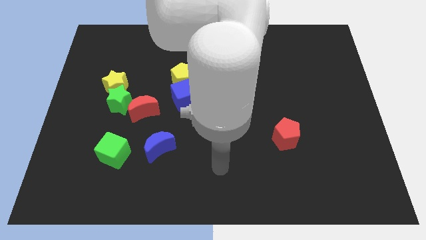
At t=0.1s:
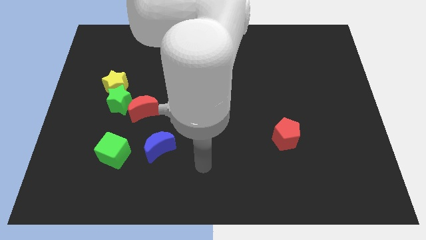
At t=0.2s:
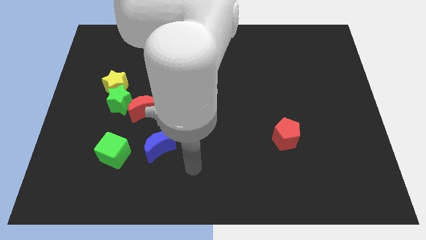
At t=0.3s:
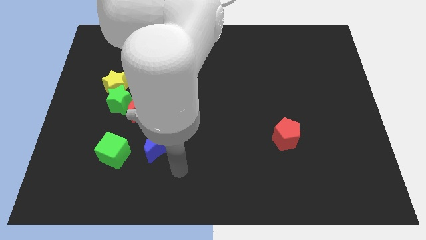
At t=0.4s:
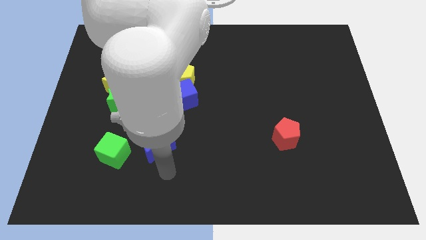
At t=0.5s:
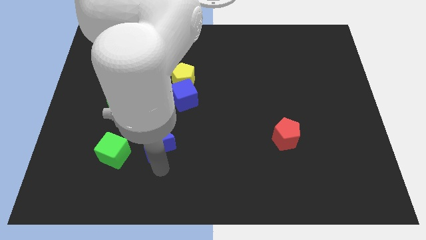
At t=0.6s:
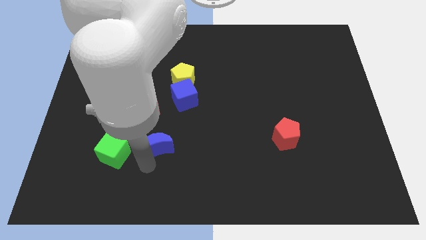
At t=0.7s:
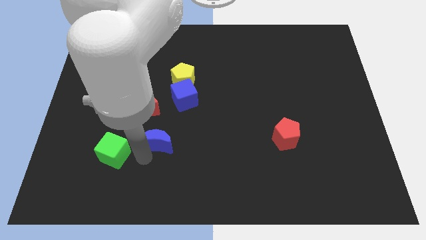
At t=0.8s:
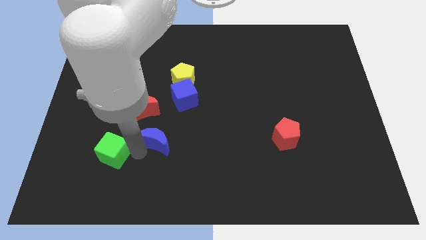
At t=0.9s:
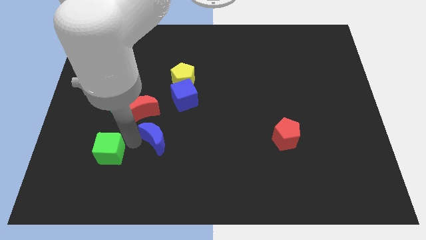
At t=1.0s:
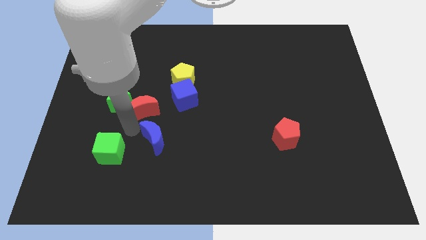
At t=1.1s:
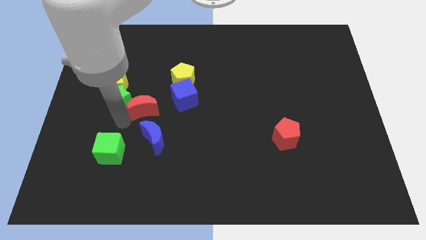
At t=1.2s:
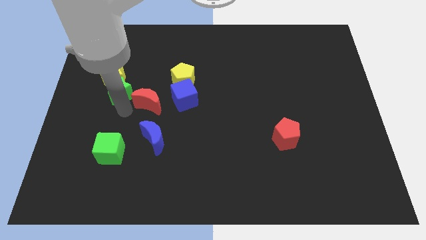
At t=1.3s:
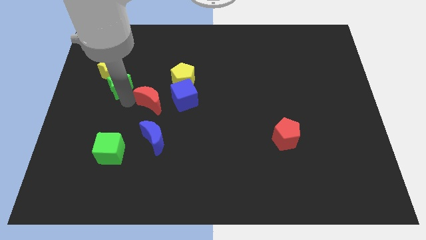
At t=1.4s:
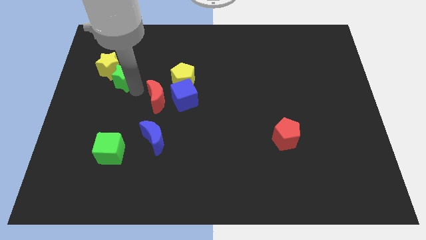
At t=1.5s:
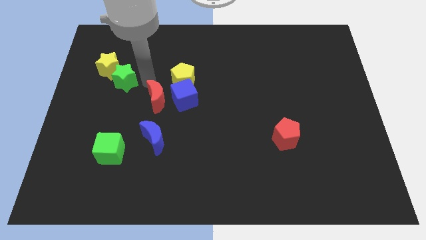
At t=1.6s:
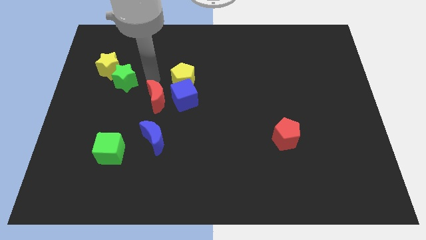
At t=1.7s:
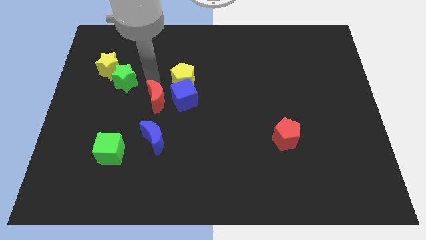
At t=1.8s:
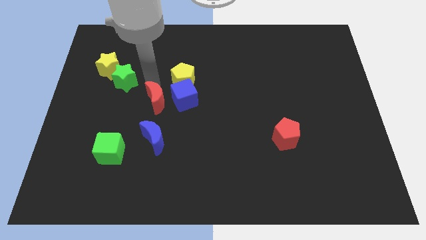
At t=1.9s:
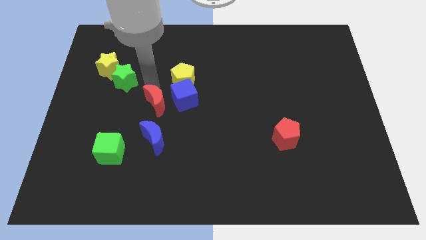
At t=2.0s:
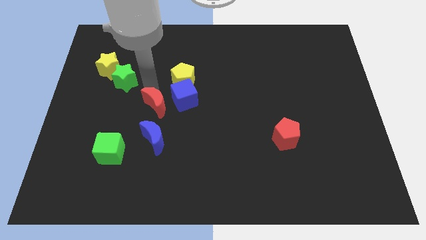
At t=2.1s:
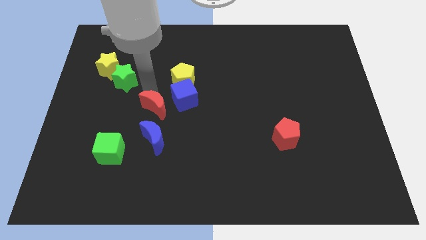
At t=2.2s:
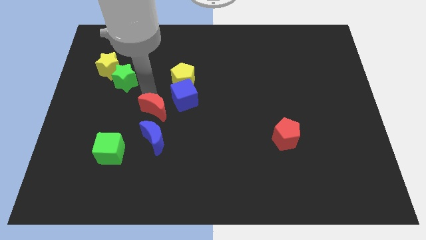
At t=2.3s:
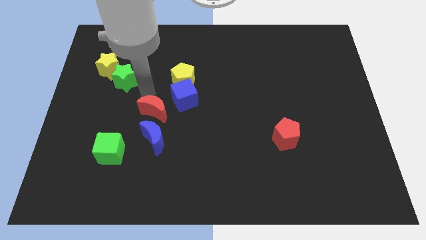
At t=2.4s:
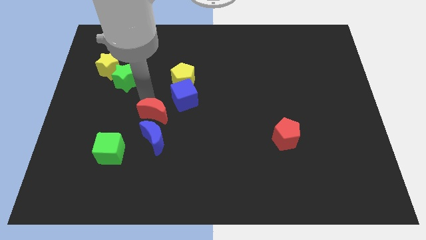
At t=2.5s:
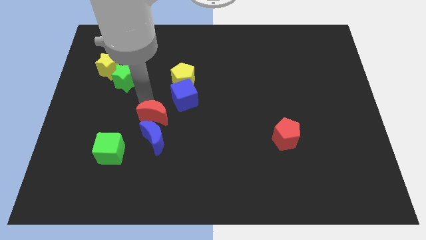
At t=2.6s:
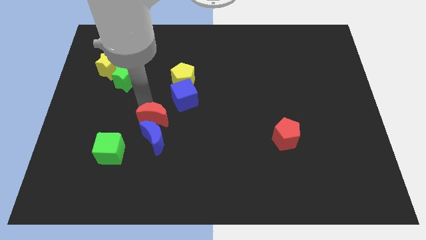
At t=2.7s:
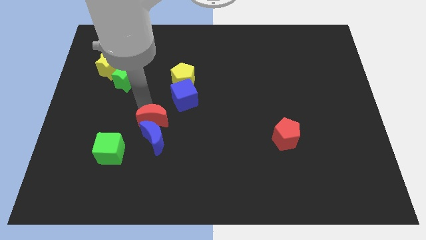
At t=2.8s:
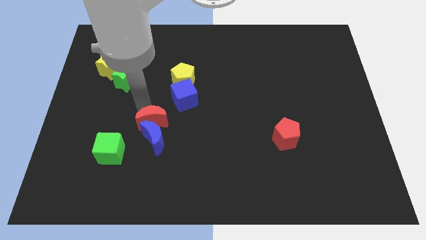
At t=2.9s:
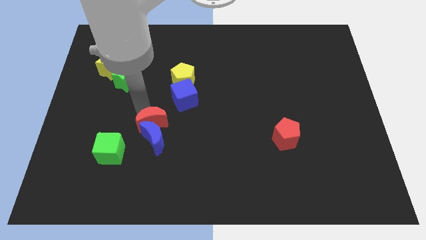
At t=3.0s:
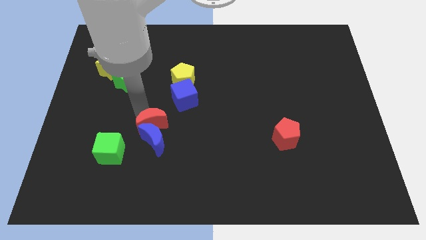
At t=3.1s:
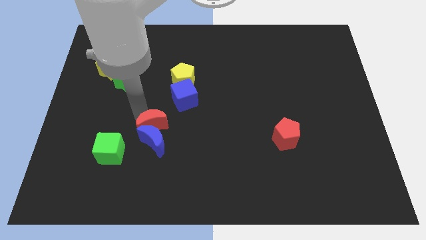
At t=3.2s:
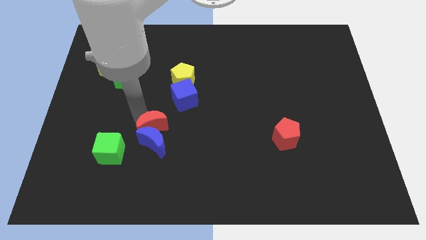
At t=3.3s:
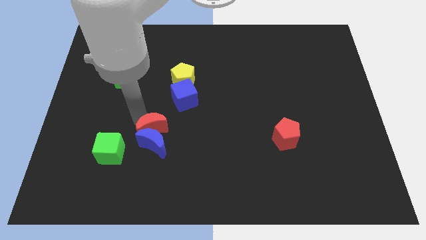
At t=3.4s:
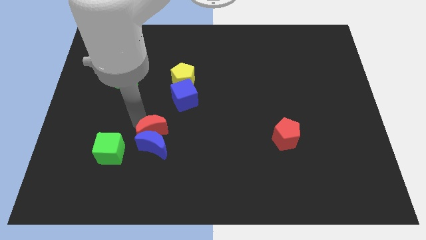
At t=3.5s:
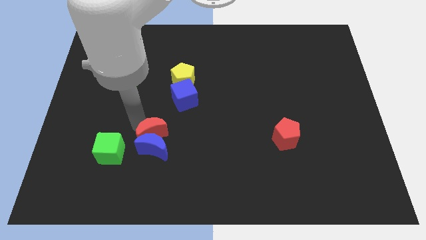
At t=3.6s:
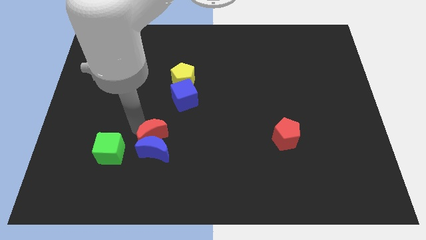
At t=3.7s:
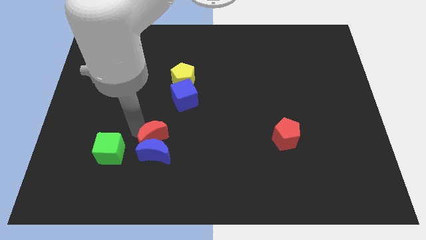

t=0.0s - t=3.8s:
slightly move the red moon downwards and right

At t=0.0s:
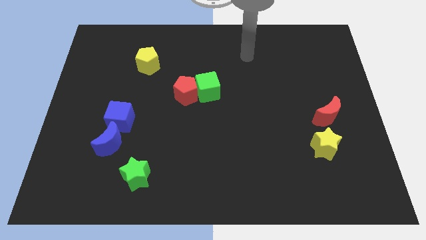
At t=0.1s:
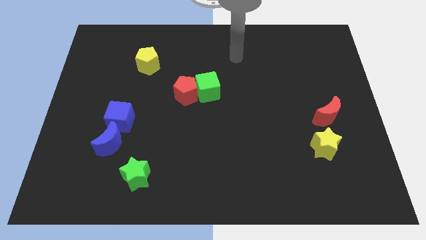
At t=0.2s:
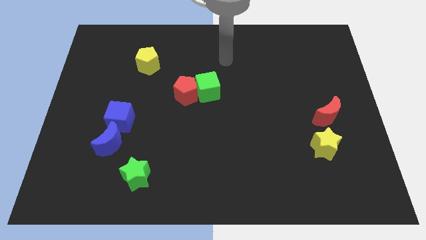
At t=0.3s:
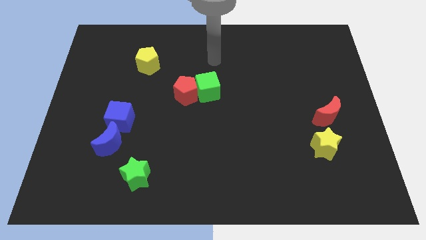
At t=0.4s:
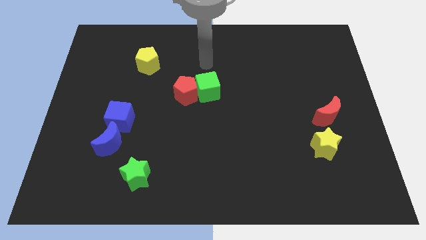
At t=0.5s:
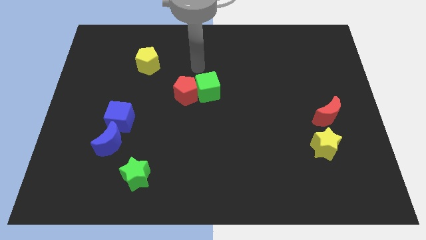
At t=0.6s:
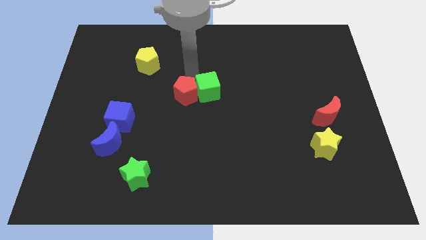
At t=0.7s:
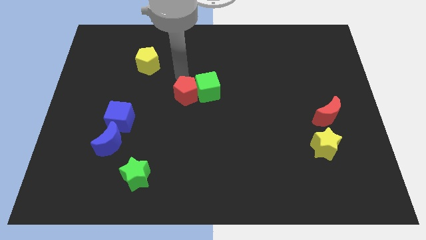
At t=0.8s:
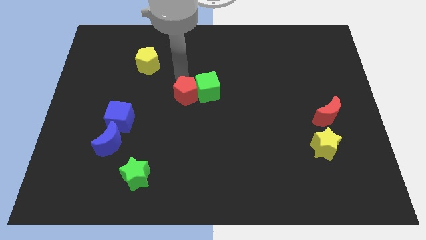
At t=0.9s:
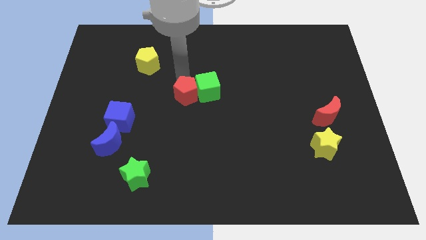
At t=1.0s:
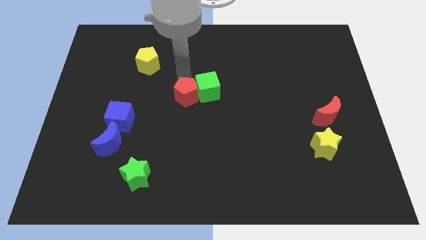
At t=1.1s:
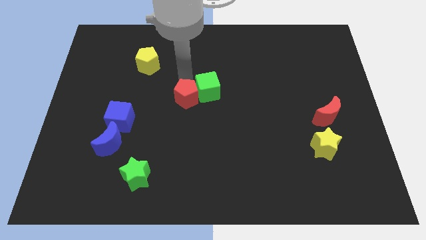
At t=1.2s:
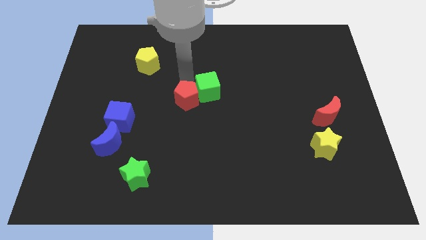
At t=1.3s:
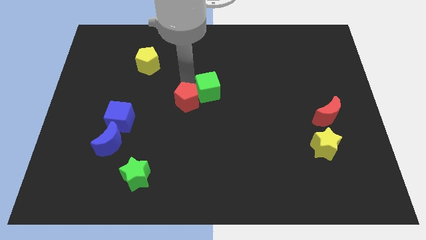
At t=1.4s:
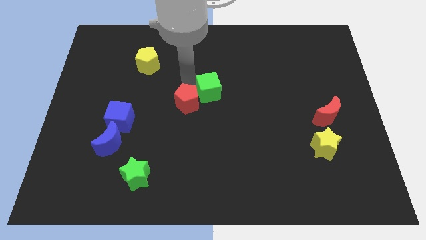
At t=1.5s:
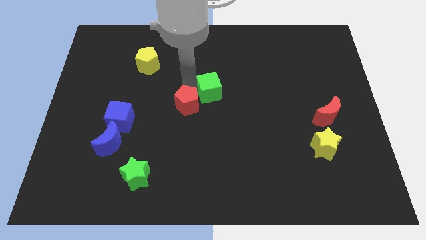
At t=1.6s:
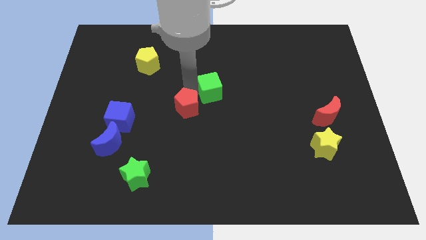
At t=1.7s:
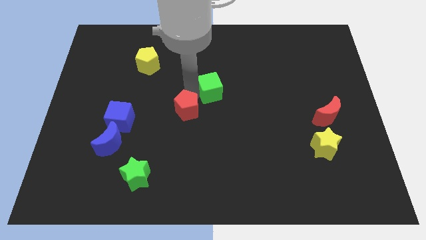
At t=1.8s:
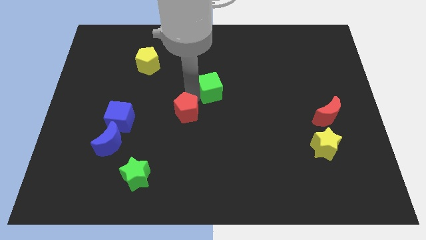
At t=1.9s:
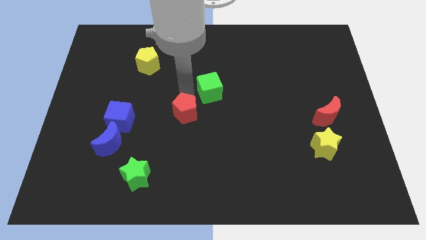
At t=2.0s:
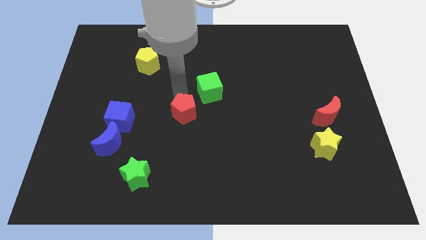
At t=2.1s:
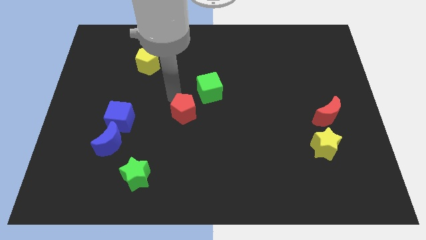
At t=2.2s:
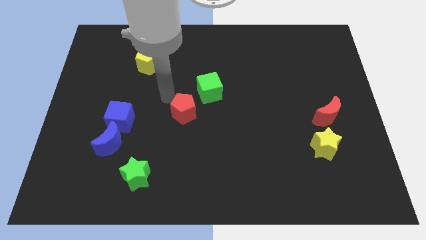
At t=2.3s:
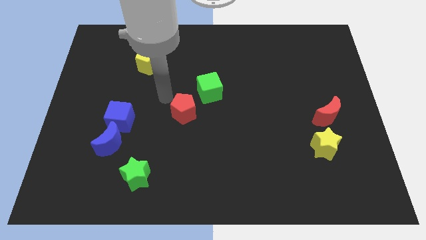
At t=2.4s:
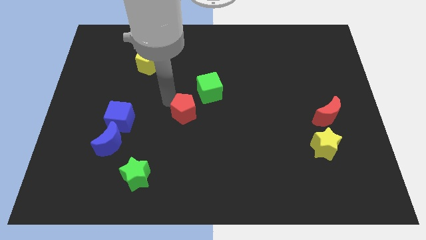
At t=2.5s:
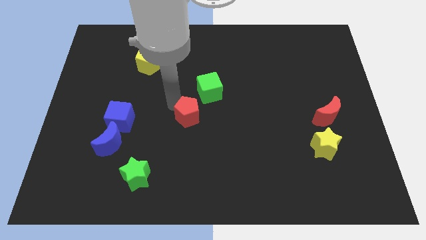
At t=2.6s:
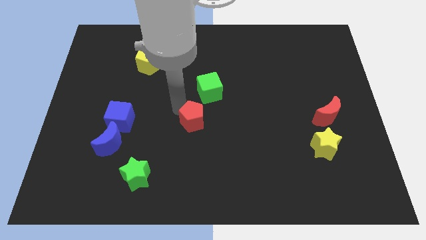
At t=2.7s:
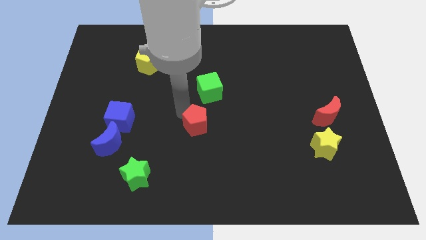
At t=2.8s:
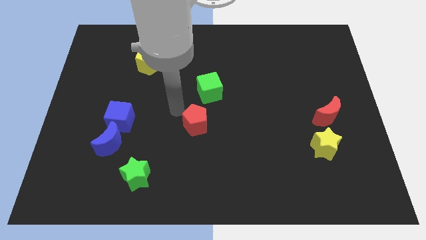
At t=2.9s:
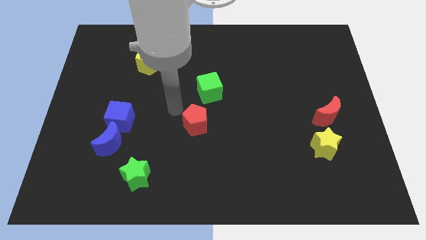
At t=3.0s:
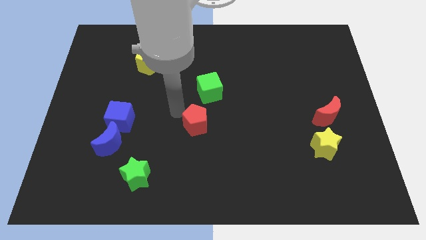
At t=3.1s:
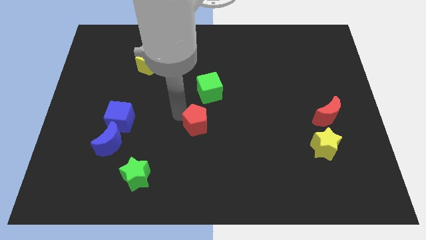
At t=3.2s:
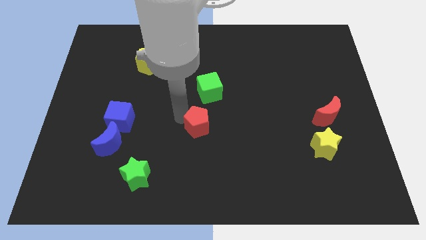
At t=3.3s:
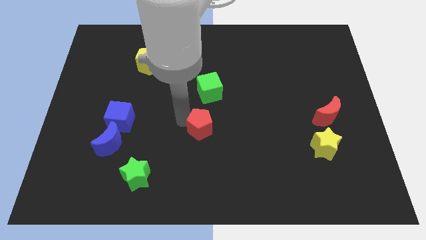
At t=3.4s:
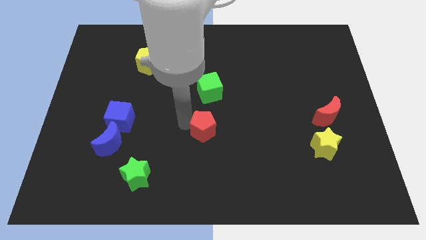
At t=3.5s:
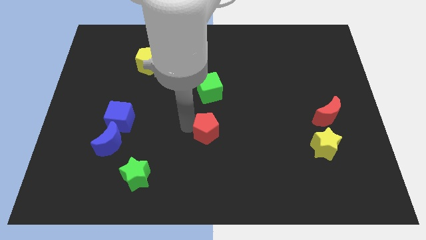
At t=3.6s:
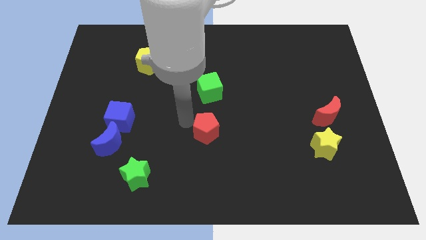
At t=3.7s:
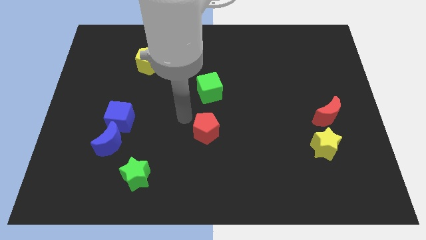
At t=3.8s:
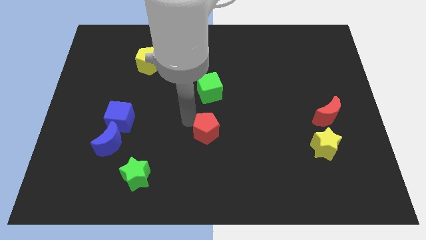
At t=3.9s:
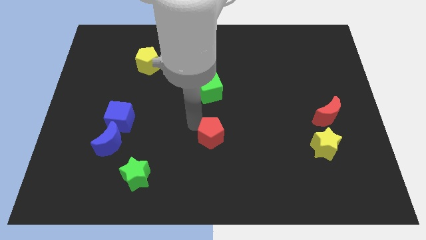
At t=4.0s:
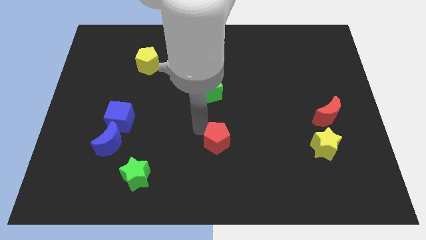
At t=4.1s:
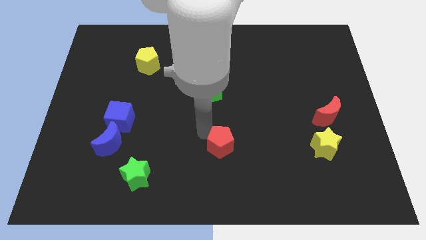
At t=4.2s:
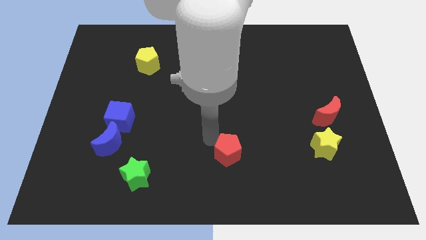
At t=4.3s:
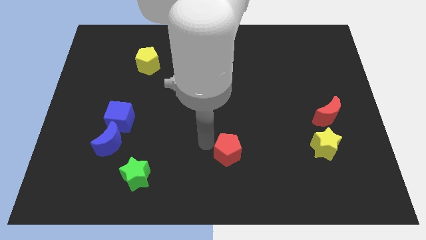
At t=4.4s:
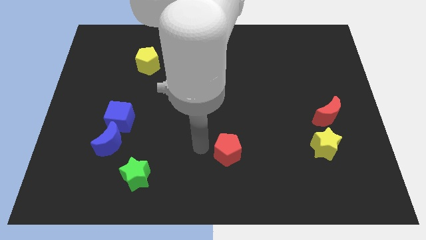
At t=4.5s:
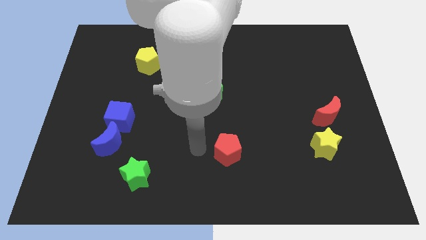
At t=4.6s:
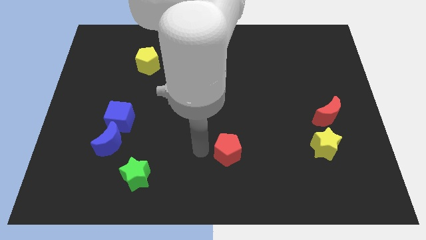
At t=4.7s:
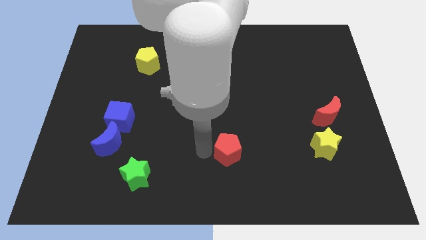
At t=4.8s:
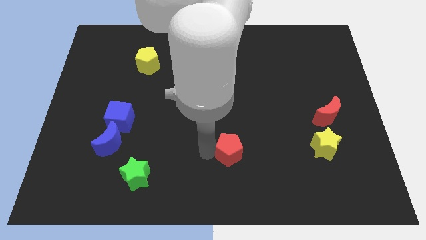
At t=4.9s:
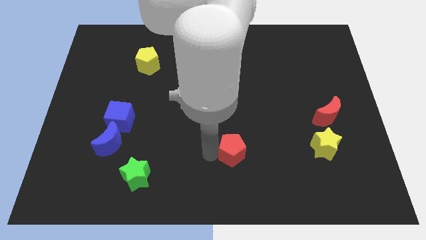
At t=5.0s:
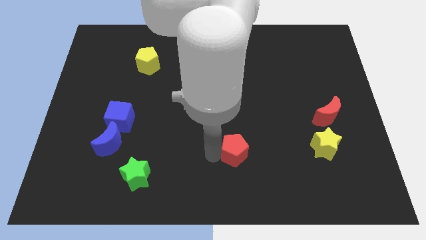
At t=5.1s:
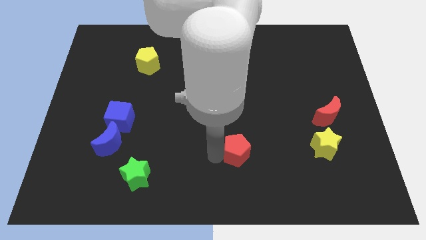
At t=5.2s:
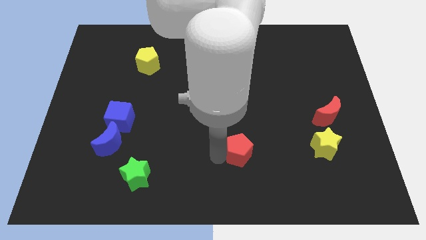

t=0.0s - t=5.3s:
push the red pentagon downwards and right
